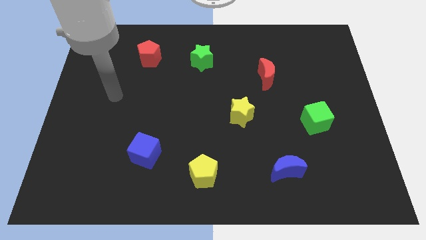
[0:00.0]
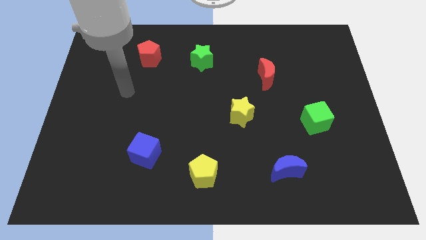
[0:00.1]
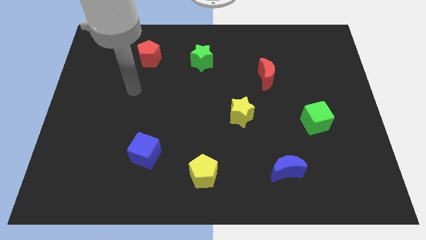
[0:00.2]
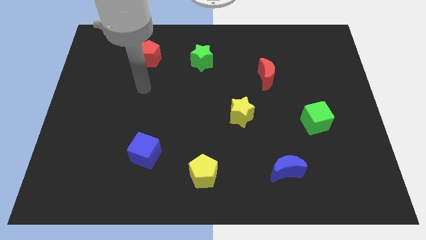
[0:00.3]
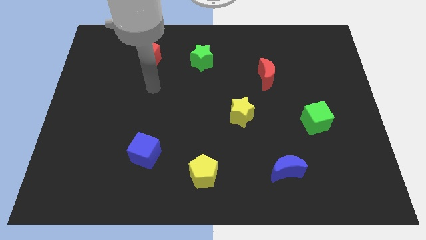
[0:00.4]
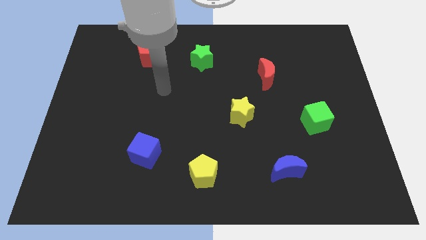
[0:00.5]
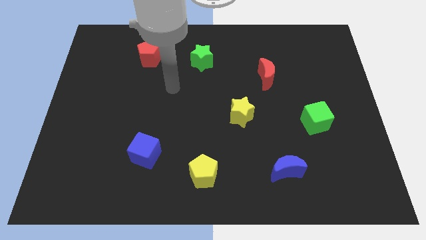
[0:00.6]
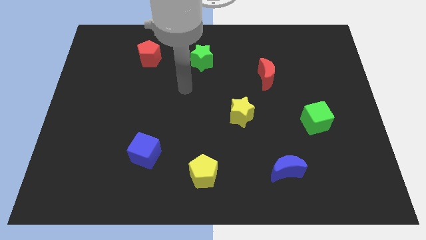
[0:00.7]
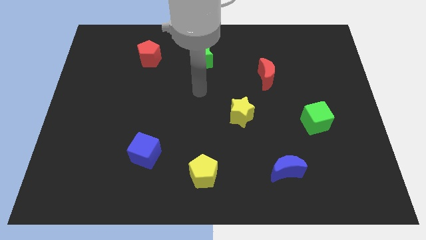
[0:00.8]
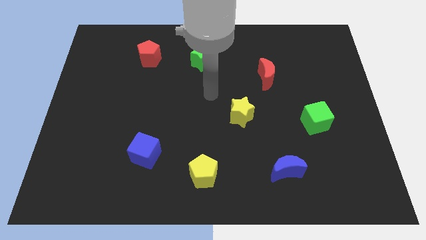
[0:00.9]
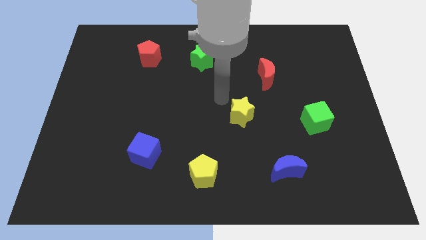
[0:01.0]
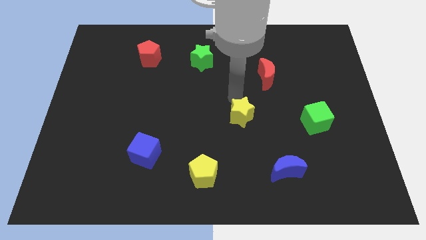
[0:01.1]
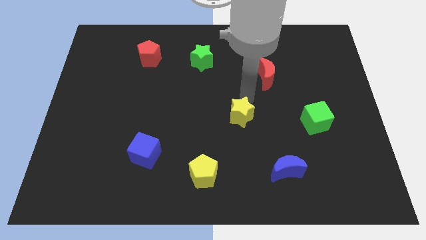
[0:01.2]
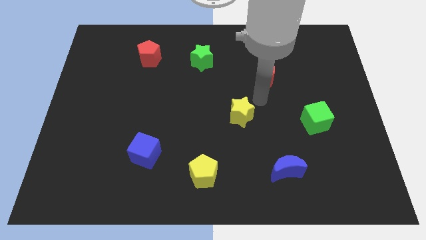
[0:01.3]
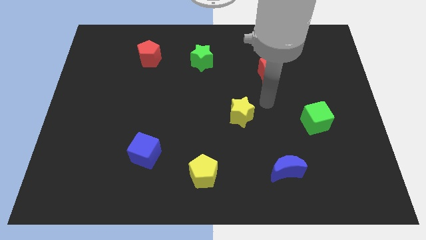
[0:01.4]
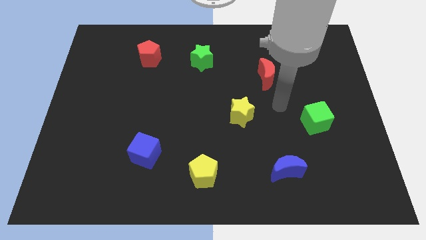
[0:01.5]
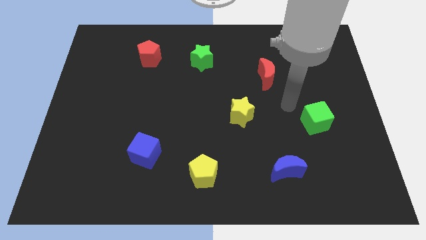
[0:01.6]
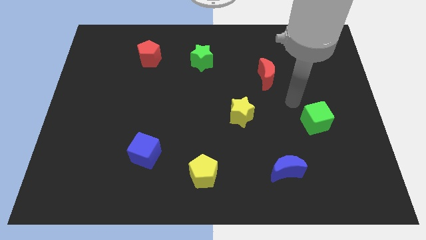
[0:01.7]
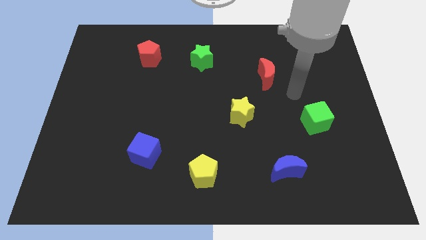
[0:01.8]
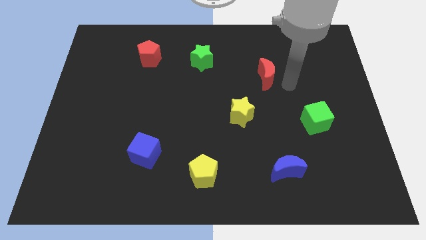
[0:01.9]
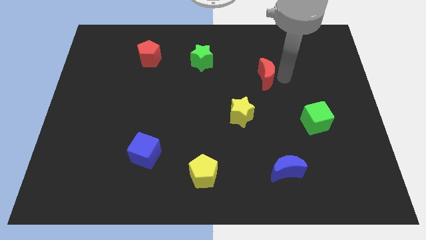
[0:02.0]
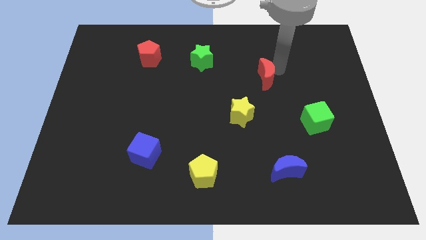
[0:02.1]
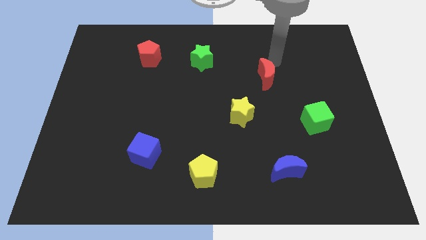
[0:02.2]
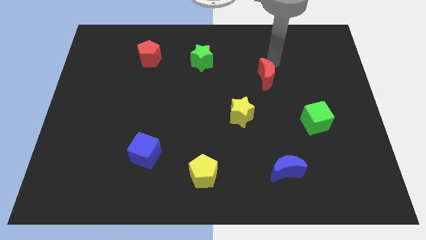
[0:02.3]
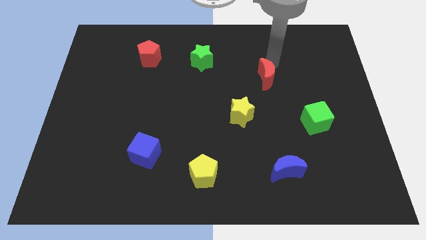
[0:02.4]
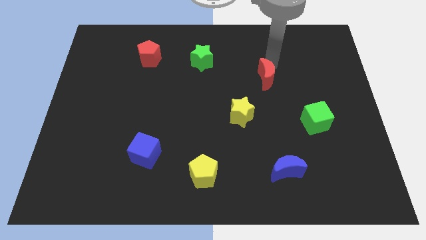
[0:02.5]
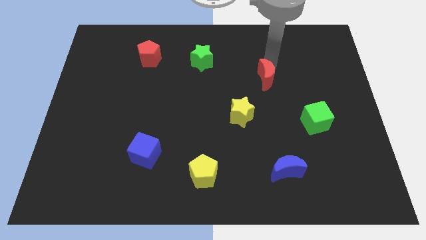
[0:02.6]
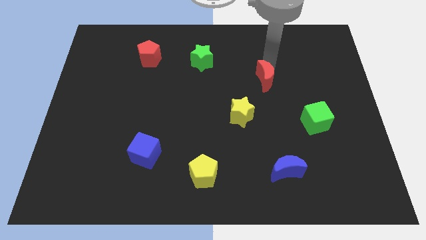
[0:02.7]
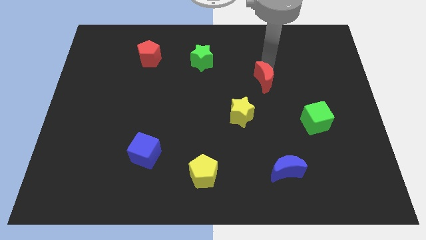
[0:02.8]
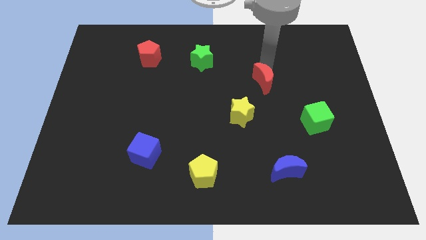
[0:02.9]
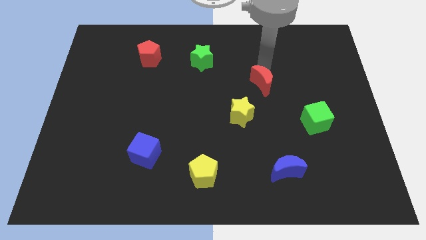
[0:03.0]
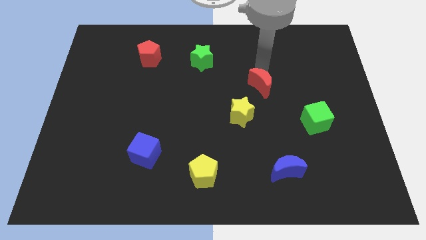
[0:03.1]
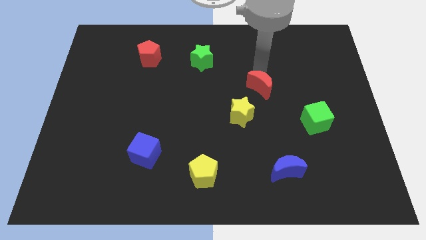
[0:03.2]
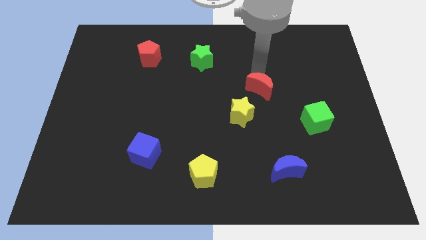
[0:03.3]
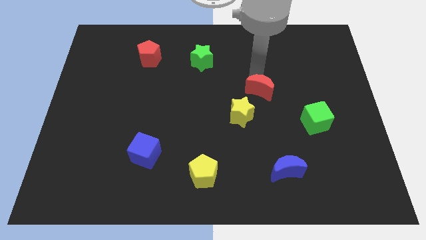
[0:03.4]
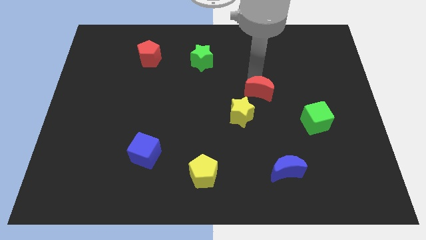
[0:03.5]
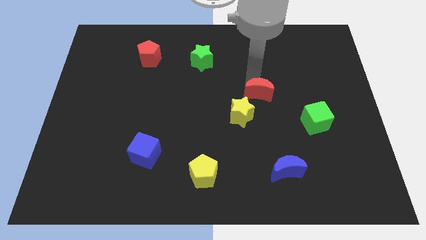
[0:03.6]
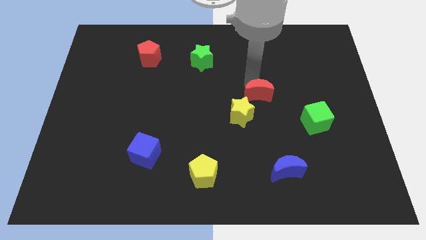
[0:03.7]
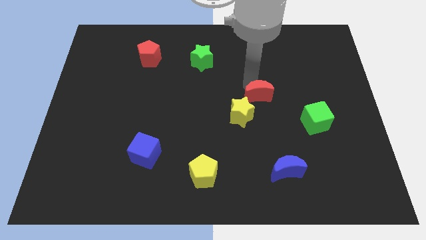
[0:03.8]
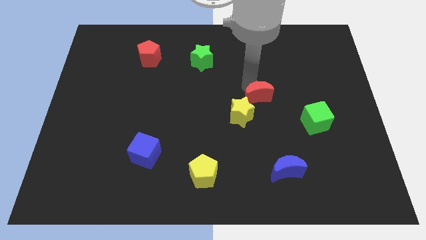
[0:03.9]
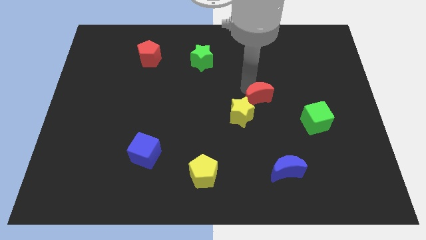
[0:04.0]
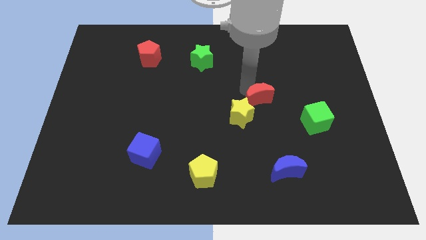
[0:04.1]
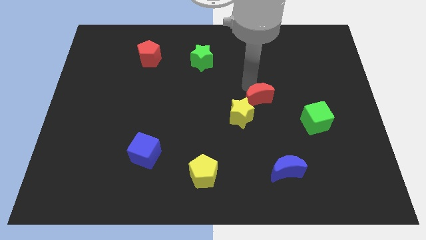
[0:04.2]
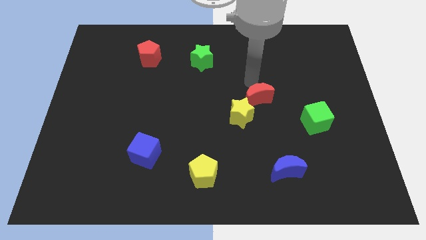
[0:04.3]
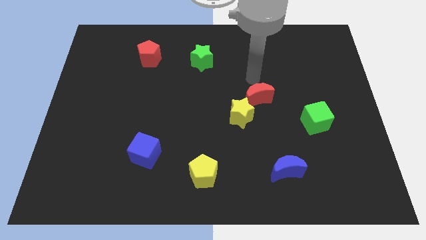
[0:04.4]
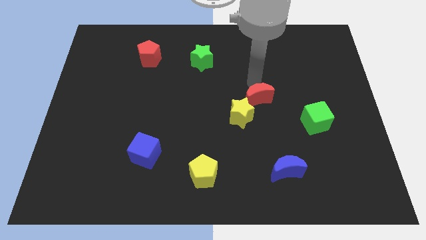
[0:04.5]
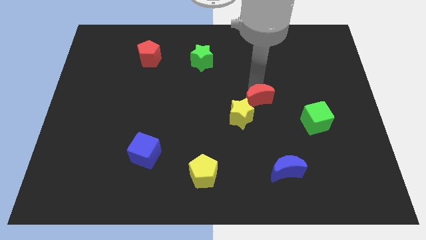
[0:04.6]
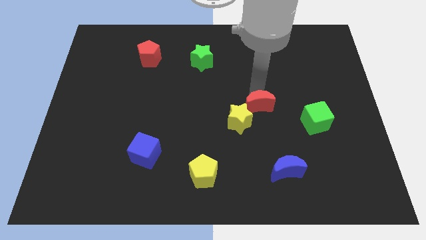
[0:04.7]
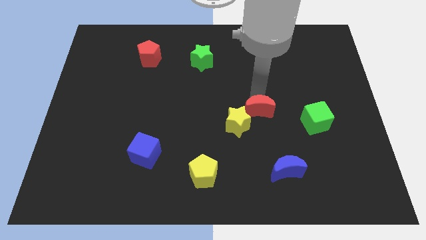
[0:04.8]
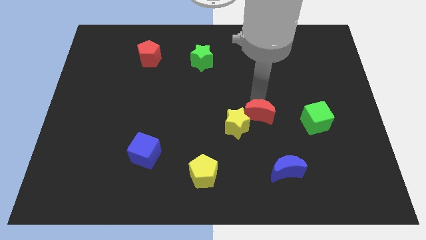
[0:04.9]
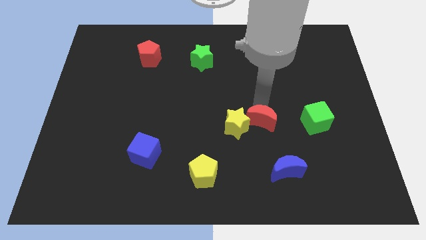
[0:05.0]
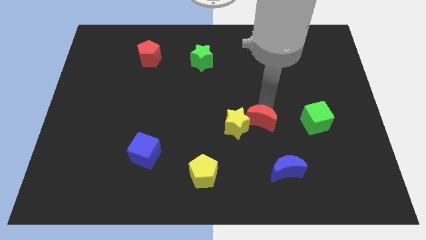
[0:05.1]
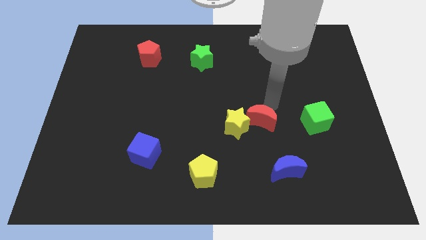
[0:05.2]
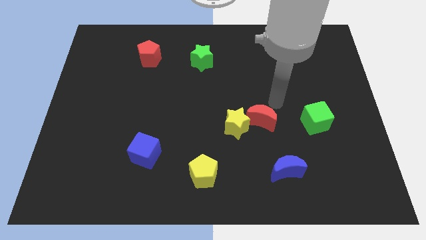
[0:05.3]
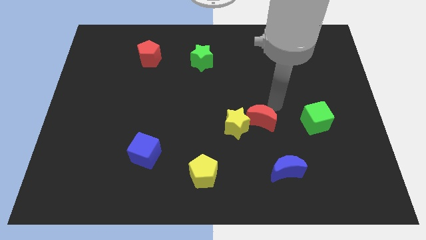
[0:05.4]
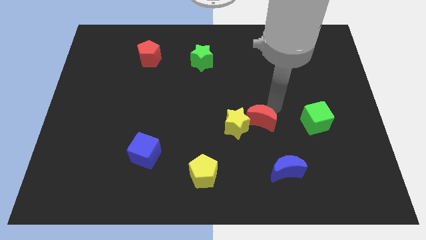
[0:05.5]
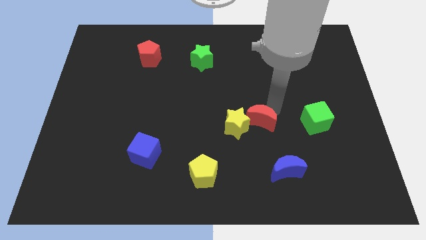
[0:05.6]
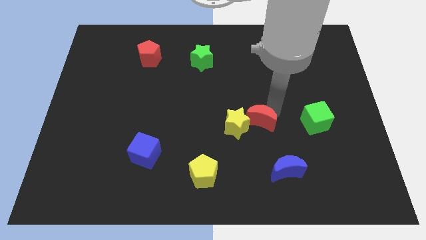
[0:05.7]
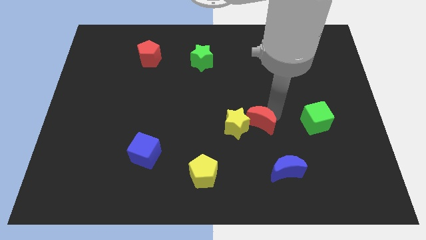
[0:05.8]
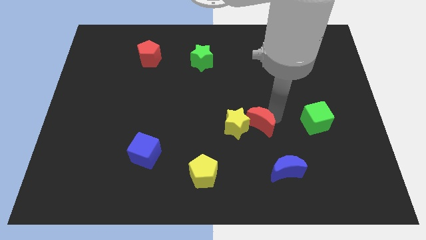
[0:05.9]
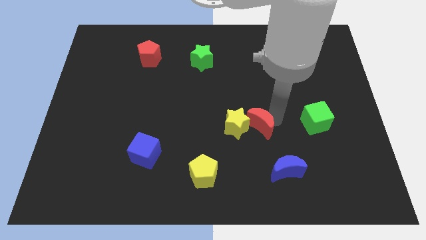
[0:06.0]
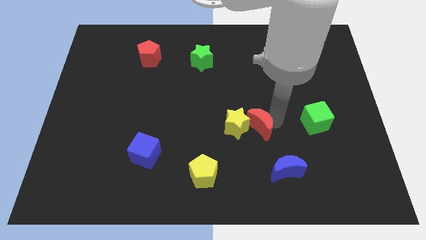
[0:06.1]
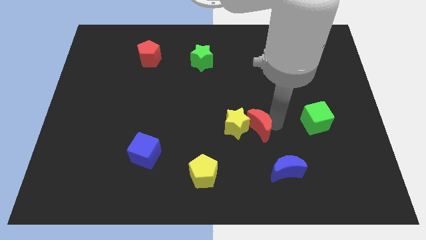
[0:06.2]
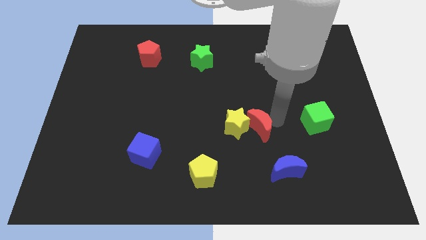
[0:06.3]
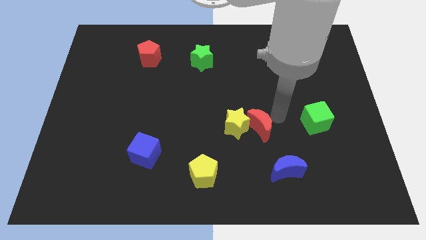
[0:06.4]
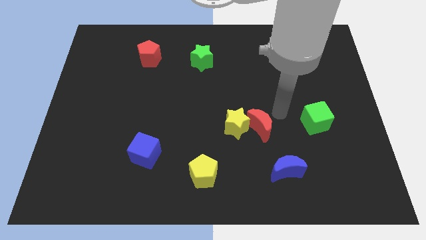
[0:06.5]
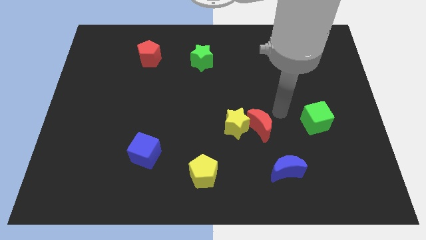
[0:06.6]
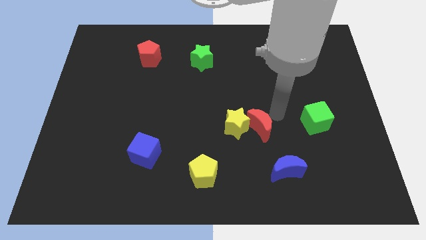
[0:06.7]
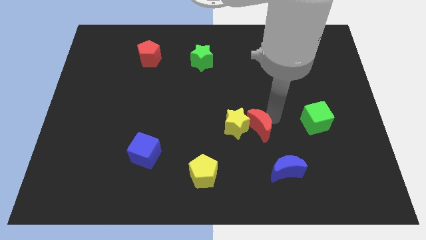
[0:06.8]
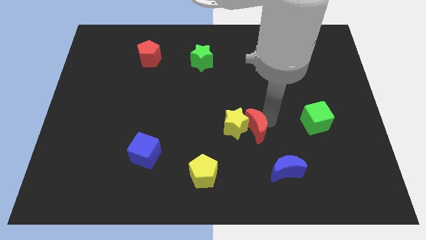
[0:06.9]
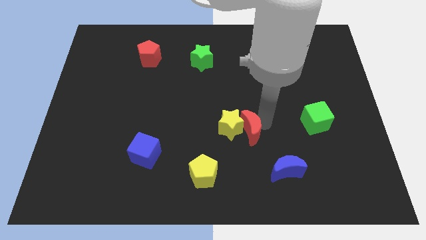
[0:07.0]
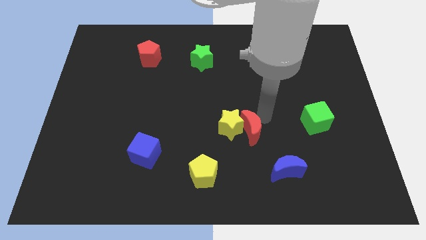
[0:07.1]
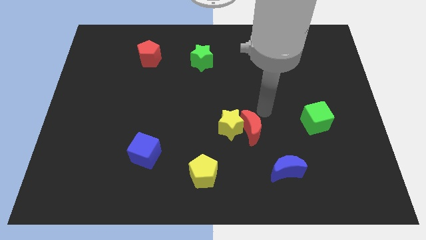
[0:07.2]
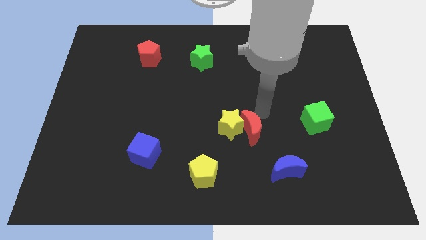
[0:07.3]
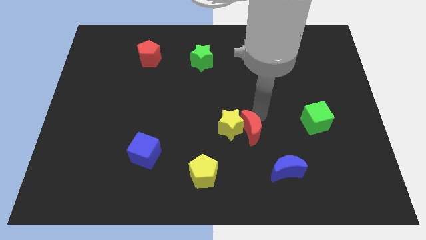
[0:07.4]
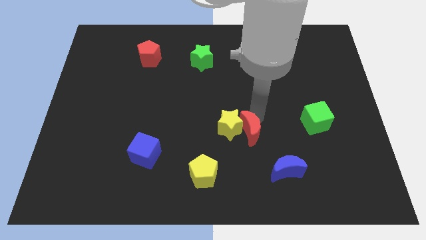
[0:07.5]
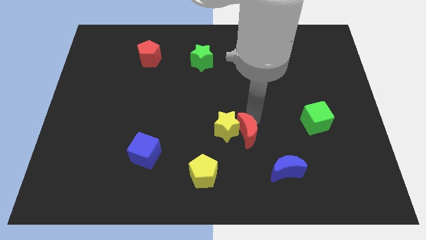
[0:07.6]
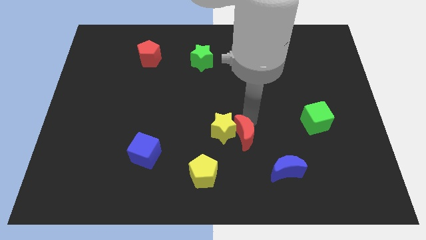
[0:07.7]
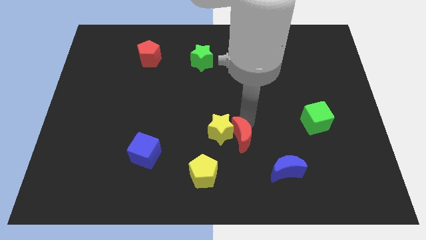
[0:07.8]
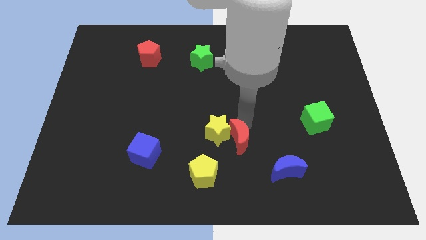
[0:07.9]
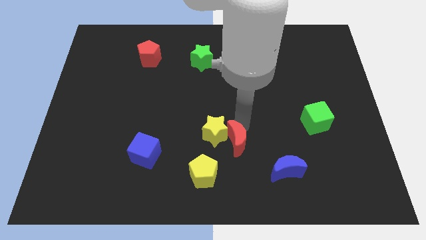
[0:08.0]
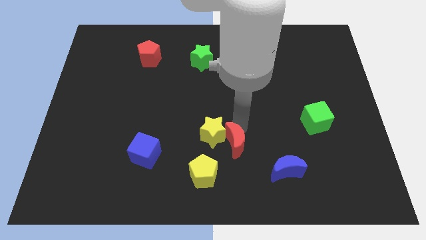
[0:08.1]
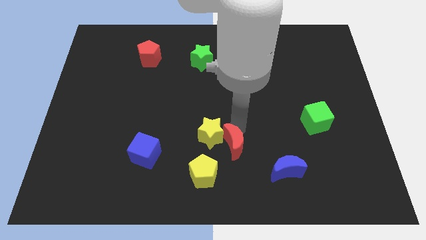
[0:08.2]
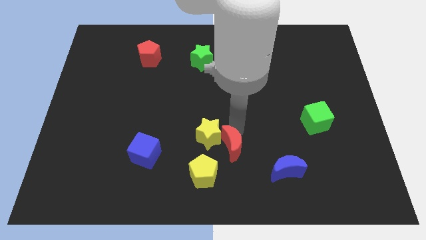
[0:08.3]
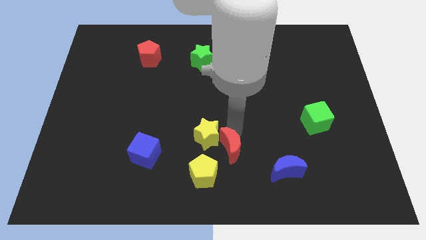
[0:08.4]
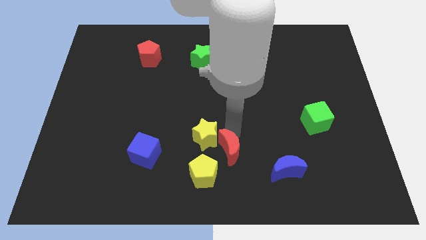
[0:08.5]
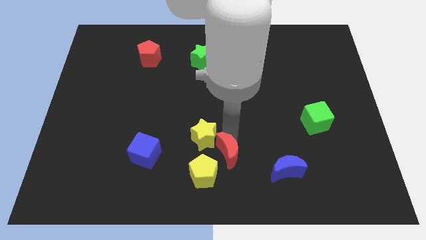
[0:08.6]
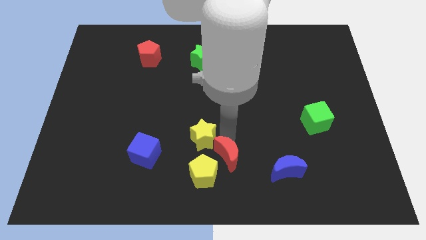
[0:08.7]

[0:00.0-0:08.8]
move the red moon to the bottom
